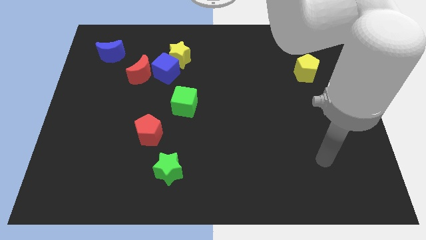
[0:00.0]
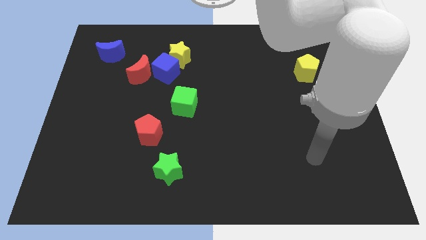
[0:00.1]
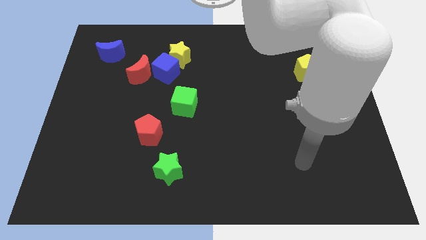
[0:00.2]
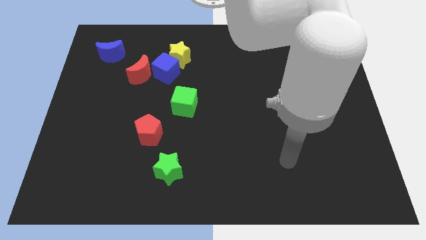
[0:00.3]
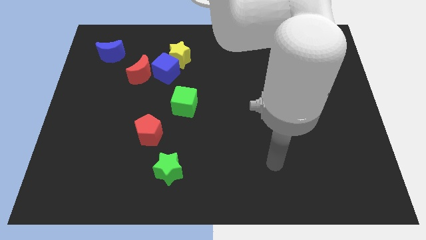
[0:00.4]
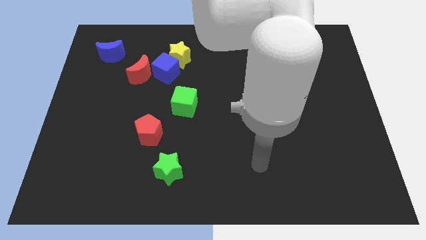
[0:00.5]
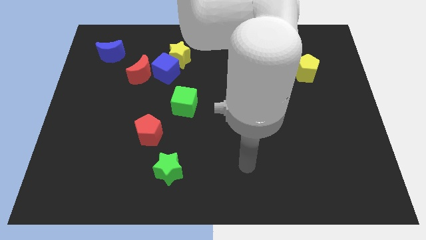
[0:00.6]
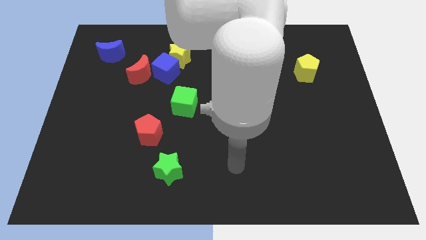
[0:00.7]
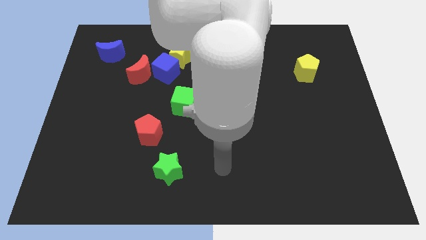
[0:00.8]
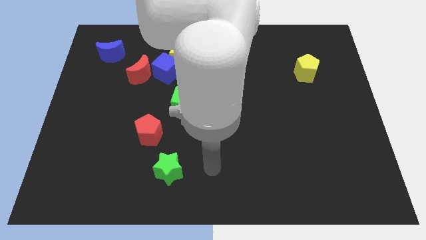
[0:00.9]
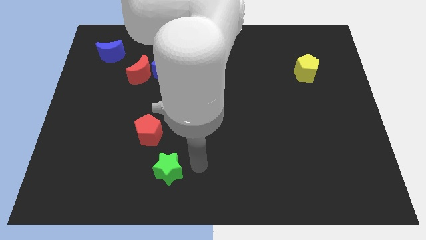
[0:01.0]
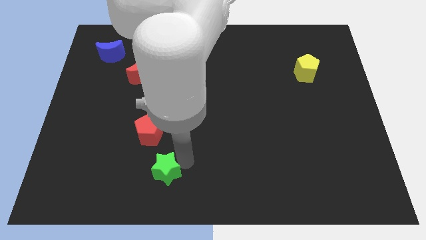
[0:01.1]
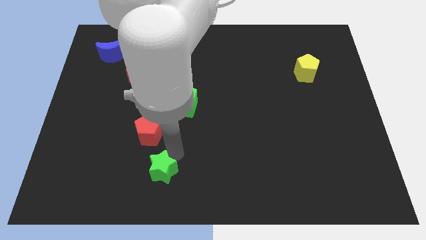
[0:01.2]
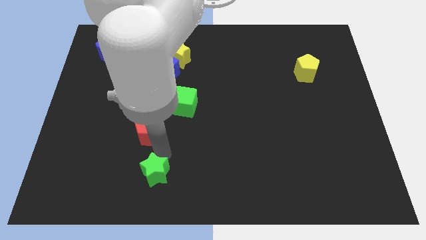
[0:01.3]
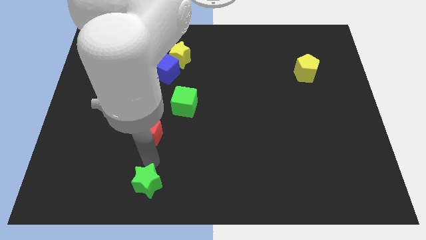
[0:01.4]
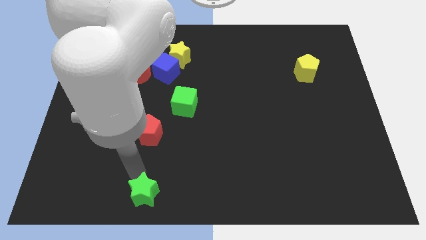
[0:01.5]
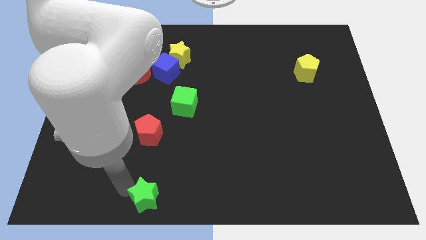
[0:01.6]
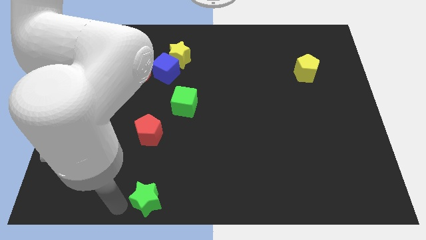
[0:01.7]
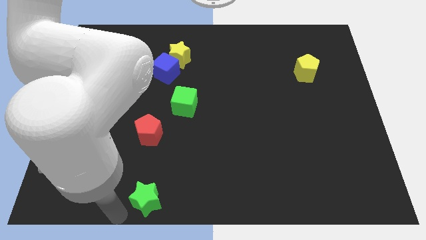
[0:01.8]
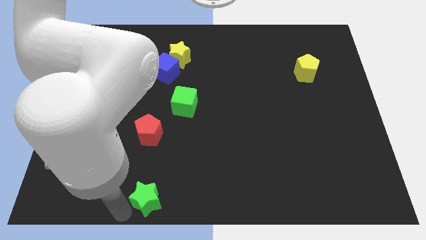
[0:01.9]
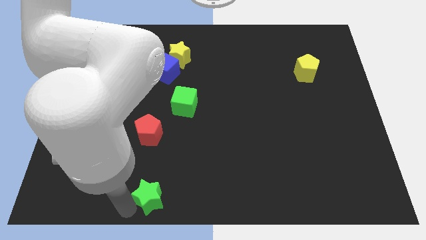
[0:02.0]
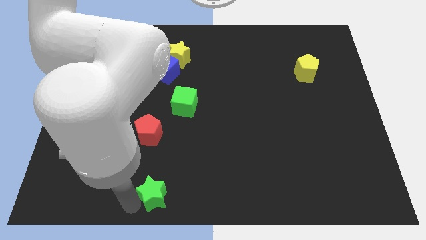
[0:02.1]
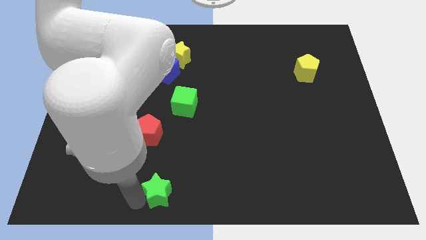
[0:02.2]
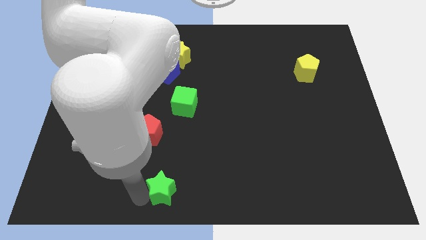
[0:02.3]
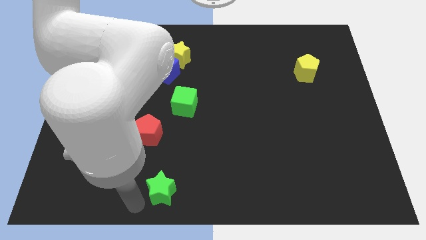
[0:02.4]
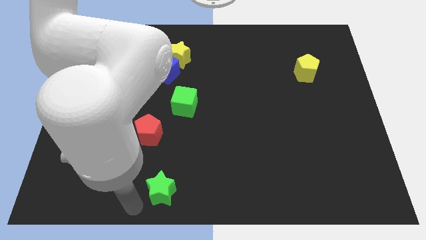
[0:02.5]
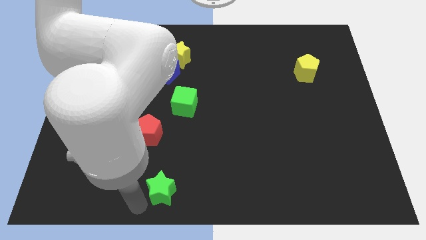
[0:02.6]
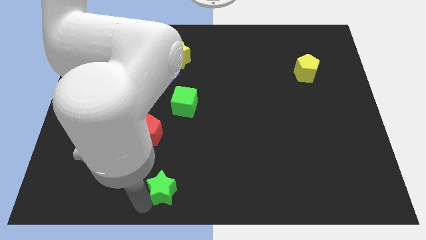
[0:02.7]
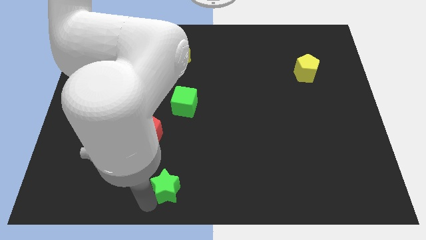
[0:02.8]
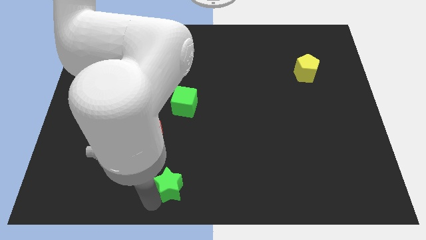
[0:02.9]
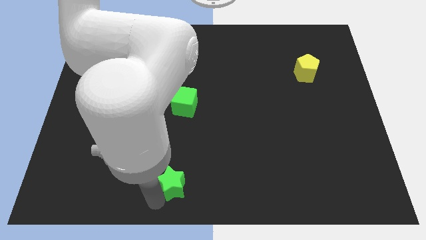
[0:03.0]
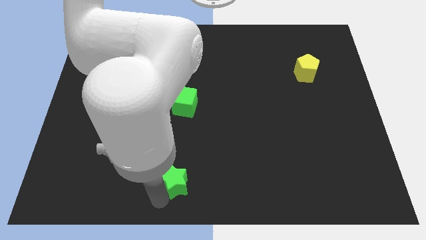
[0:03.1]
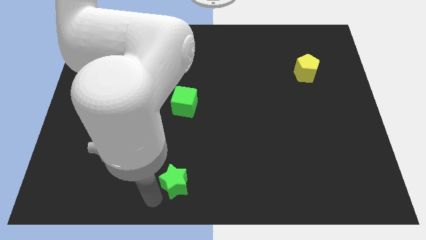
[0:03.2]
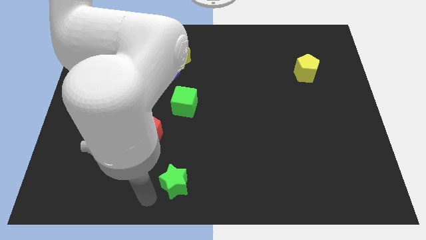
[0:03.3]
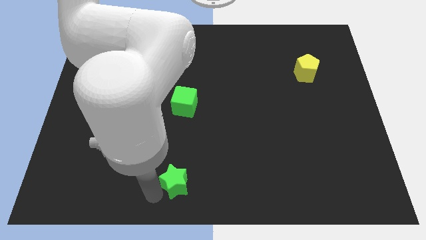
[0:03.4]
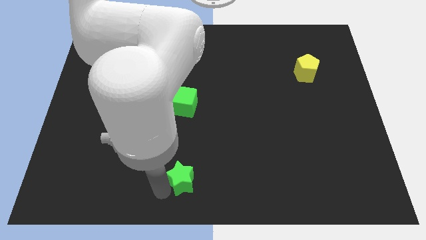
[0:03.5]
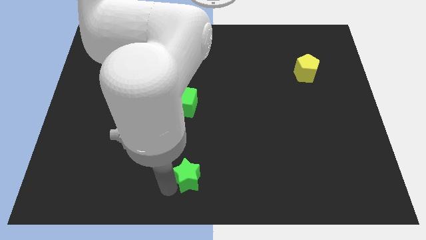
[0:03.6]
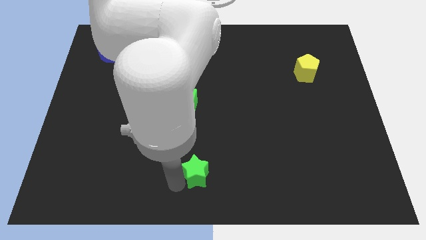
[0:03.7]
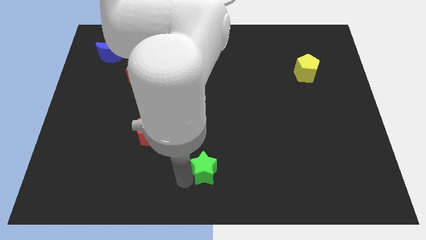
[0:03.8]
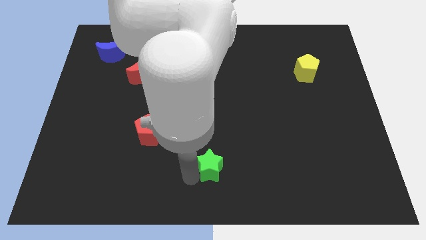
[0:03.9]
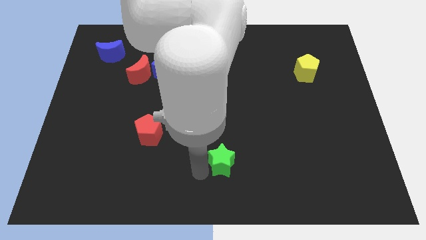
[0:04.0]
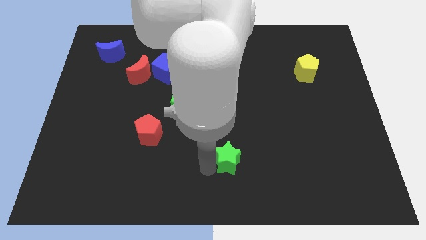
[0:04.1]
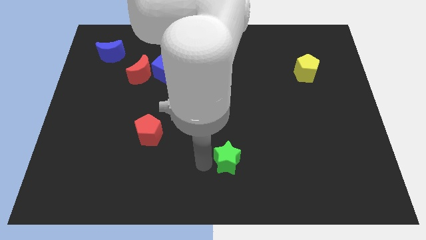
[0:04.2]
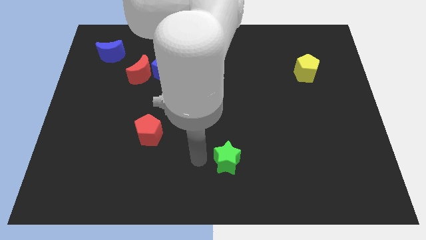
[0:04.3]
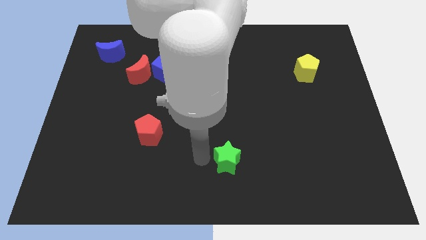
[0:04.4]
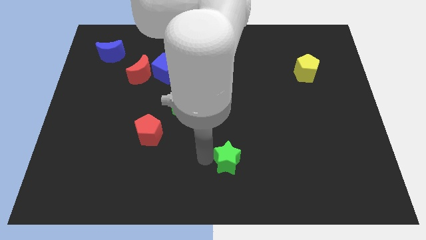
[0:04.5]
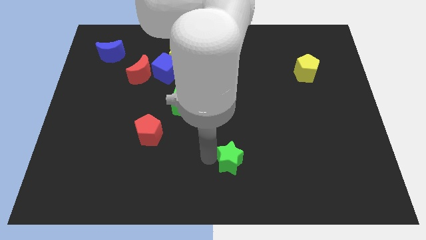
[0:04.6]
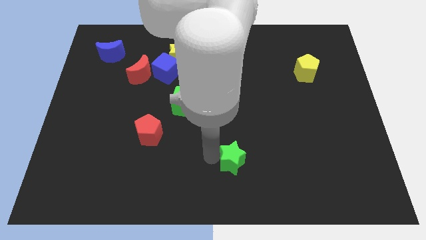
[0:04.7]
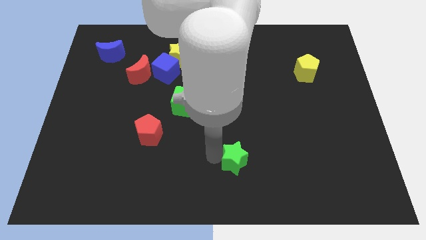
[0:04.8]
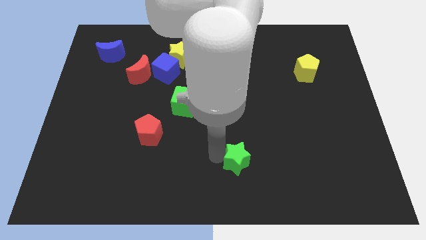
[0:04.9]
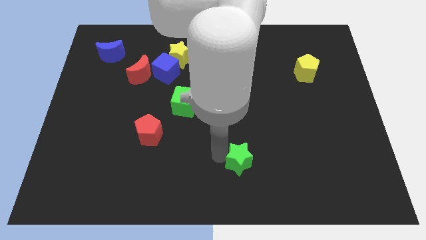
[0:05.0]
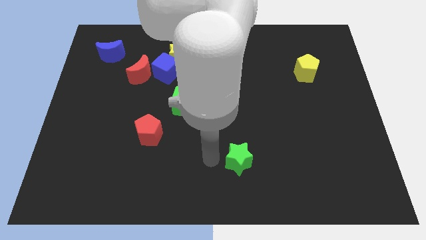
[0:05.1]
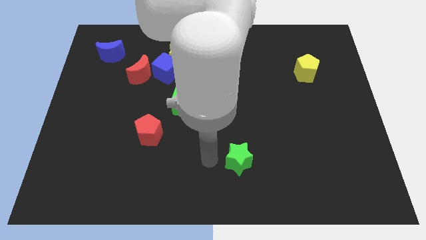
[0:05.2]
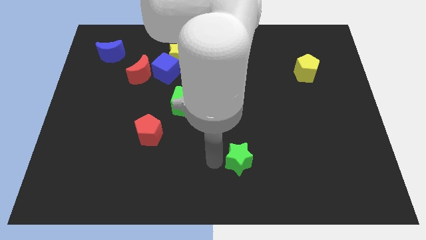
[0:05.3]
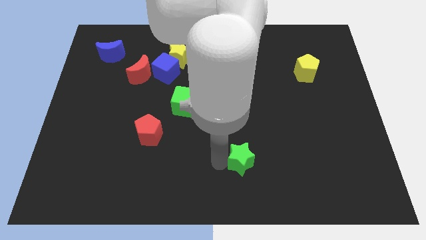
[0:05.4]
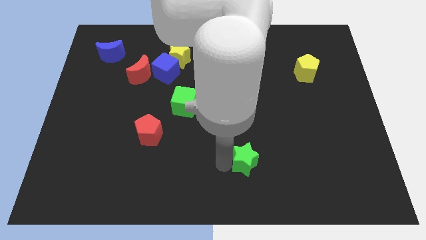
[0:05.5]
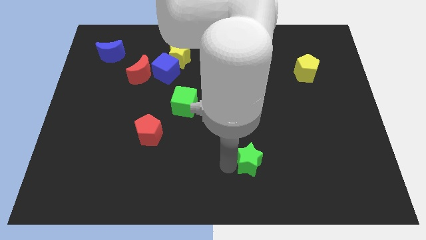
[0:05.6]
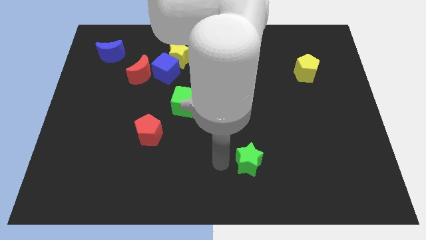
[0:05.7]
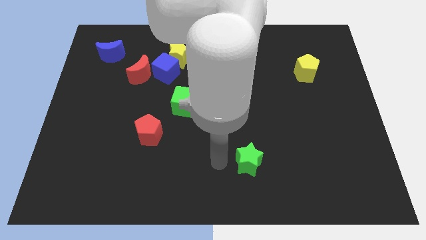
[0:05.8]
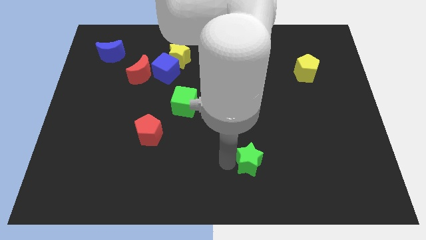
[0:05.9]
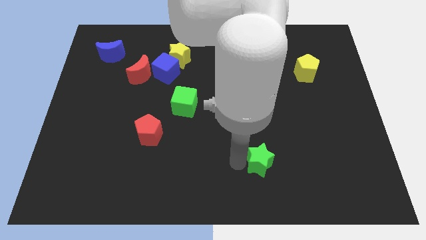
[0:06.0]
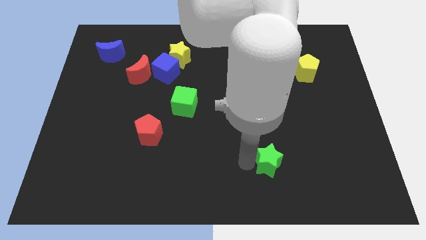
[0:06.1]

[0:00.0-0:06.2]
slide the green star to the right

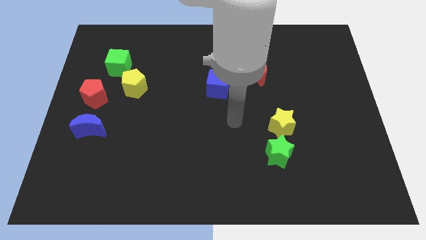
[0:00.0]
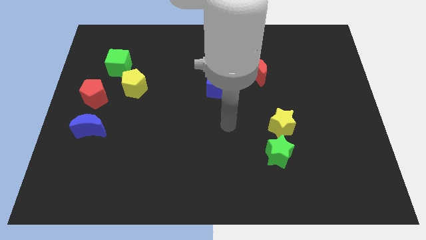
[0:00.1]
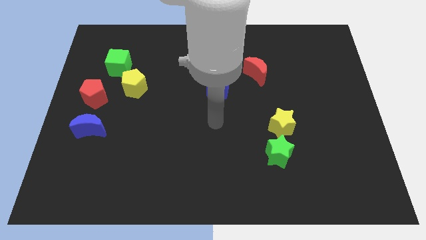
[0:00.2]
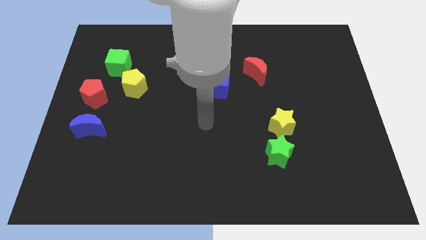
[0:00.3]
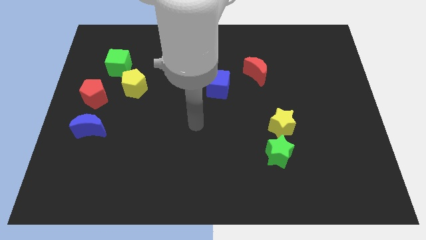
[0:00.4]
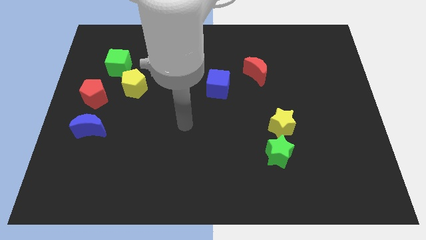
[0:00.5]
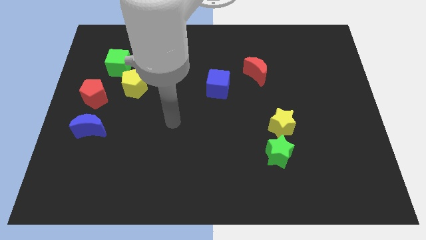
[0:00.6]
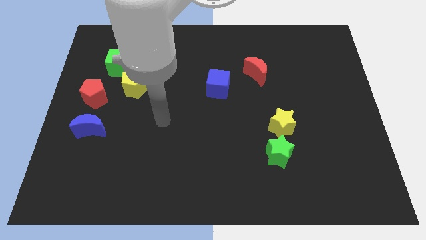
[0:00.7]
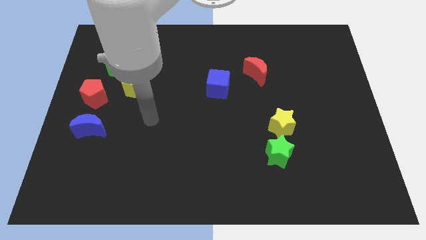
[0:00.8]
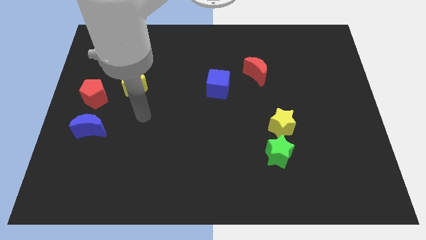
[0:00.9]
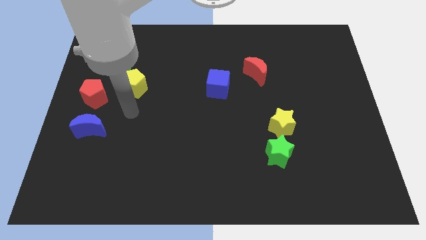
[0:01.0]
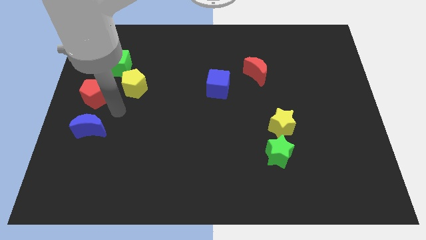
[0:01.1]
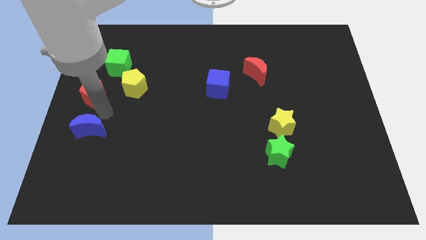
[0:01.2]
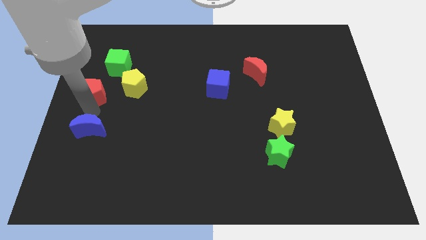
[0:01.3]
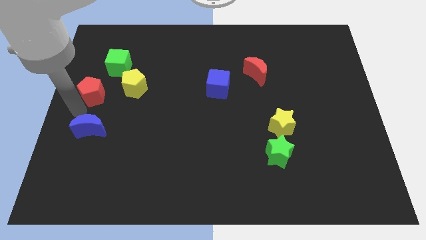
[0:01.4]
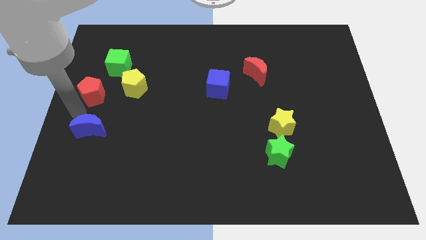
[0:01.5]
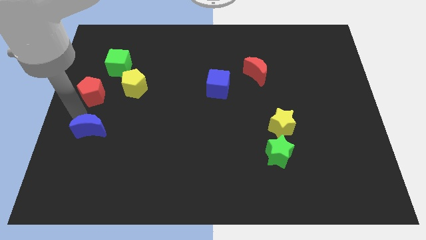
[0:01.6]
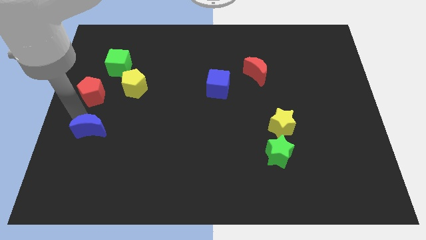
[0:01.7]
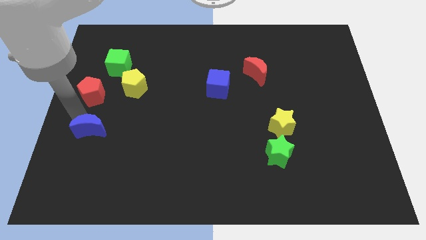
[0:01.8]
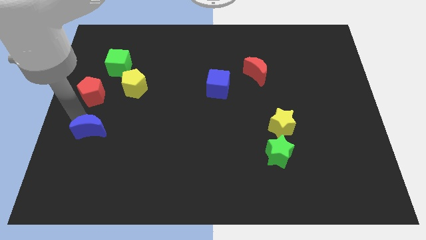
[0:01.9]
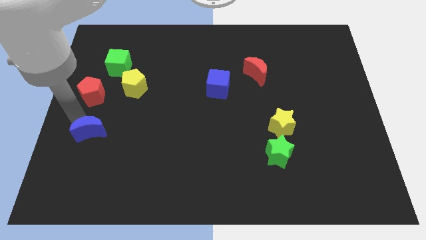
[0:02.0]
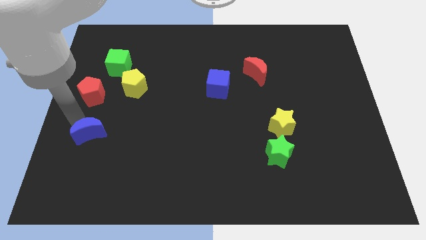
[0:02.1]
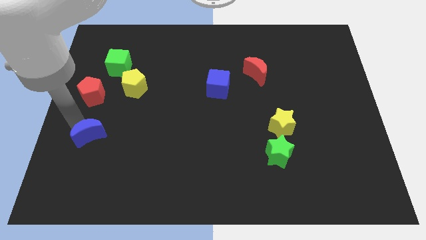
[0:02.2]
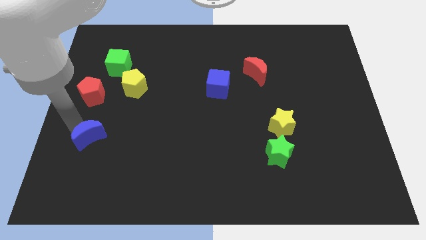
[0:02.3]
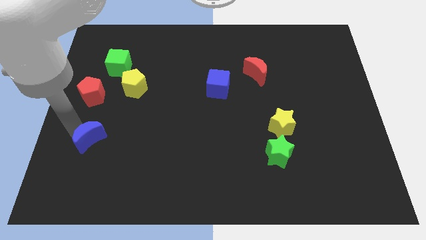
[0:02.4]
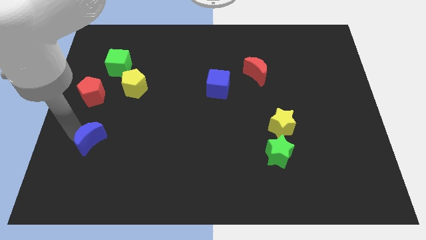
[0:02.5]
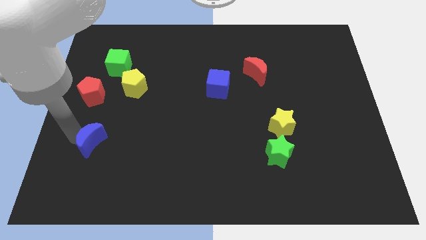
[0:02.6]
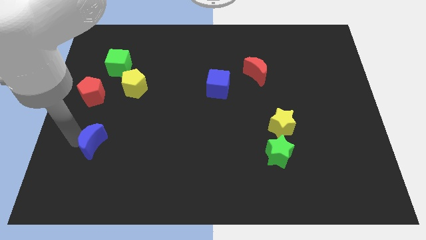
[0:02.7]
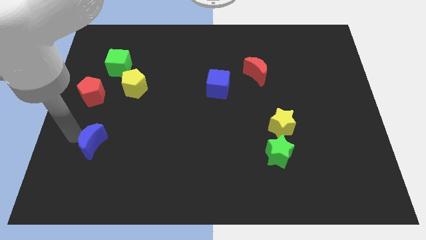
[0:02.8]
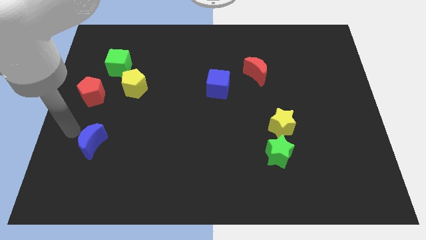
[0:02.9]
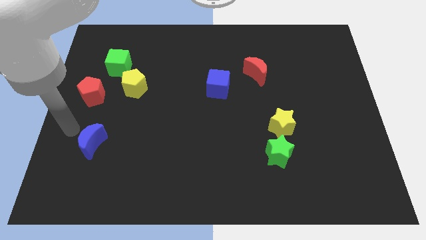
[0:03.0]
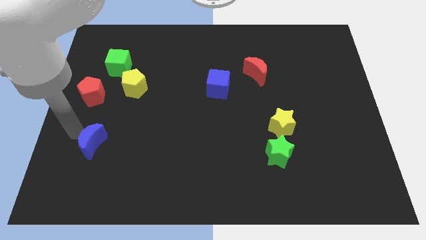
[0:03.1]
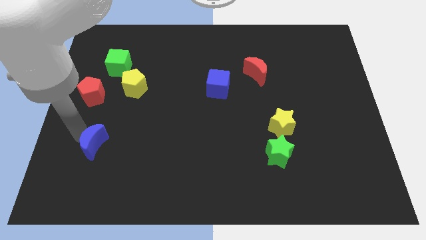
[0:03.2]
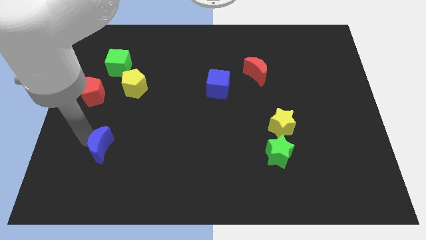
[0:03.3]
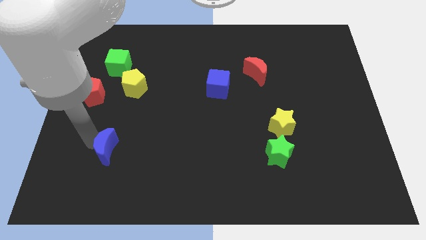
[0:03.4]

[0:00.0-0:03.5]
slide the blue moon a little diagonally downwards and right
